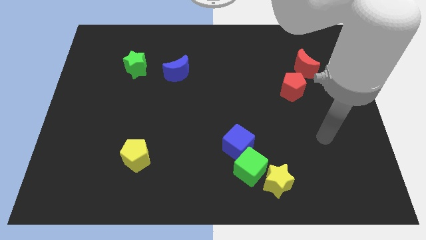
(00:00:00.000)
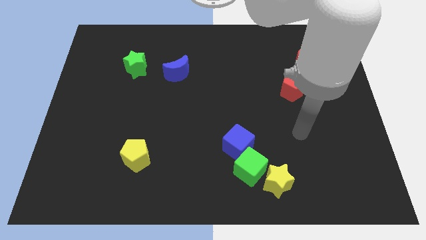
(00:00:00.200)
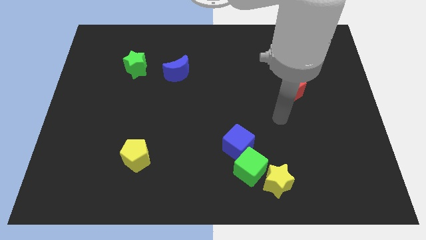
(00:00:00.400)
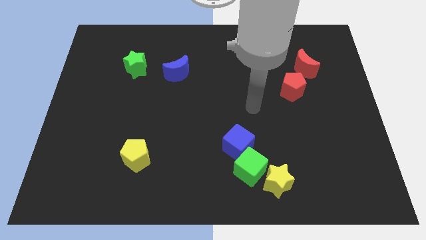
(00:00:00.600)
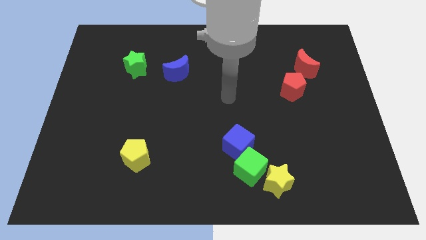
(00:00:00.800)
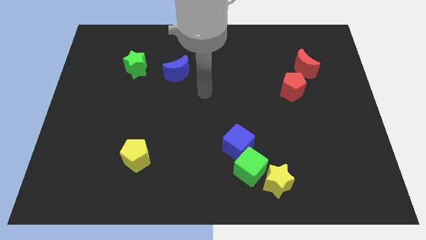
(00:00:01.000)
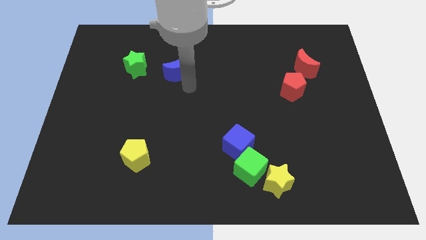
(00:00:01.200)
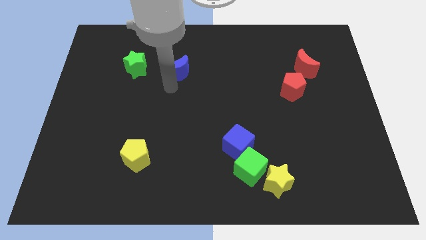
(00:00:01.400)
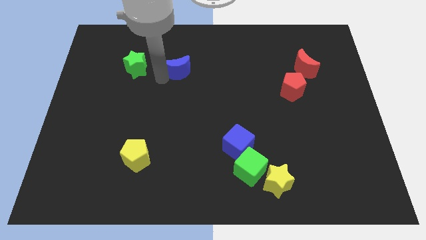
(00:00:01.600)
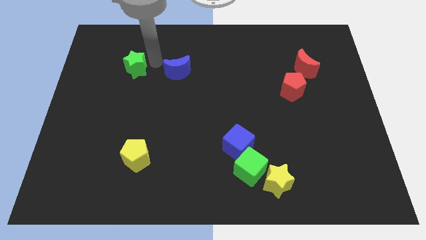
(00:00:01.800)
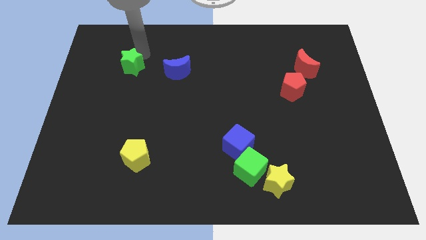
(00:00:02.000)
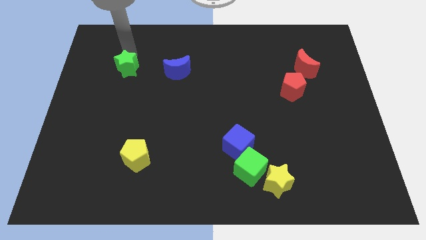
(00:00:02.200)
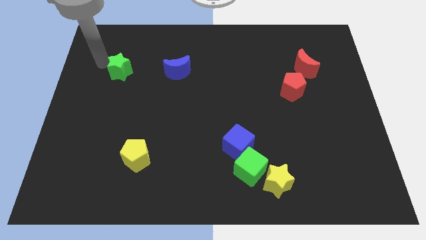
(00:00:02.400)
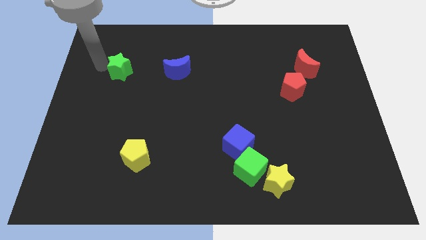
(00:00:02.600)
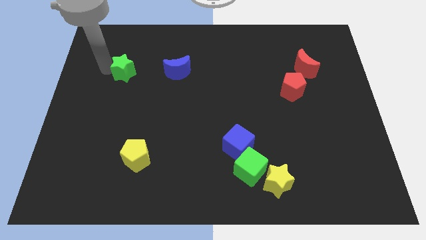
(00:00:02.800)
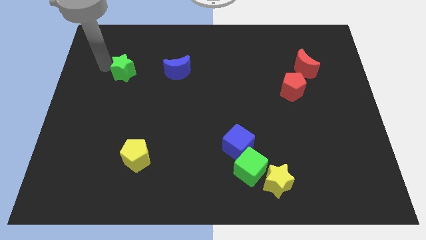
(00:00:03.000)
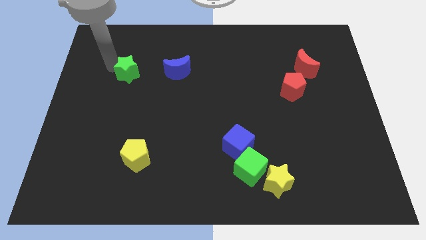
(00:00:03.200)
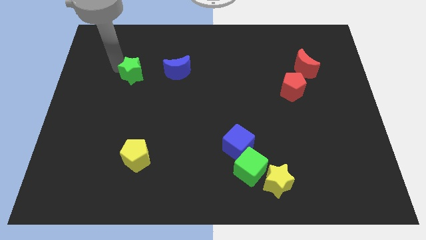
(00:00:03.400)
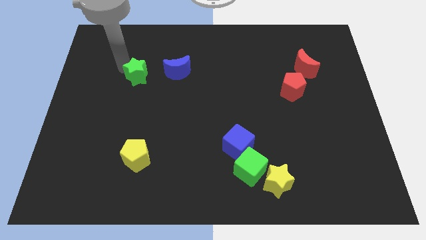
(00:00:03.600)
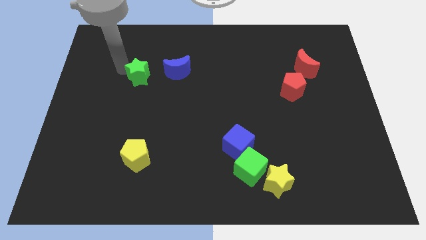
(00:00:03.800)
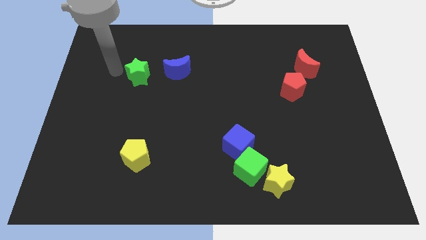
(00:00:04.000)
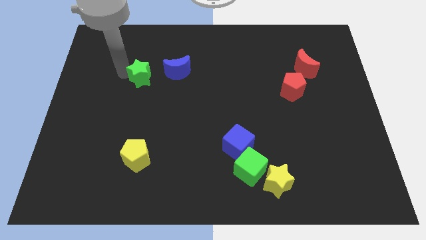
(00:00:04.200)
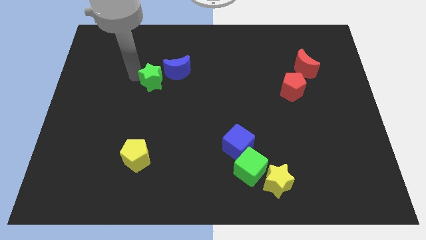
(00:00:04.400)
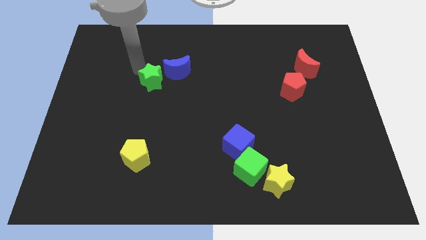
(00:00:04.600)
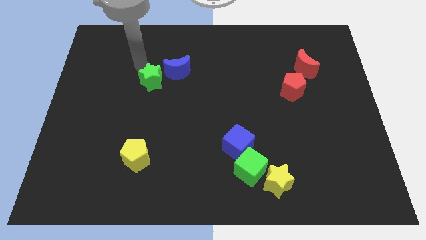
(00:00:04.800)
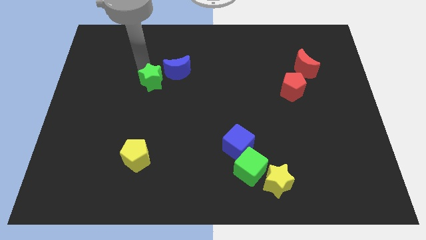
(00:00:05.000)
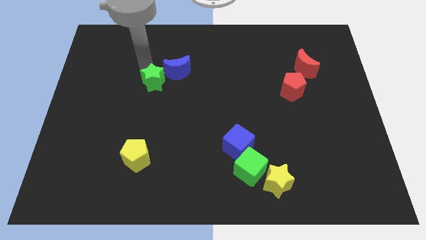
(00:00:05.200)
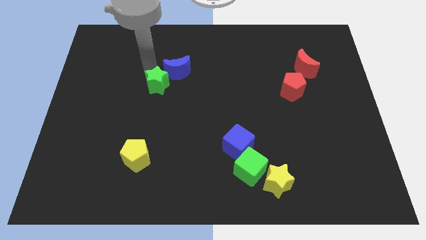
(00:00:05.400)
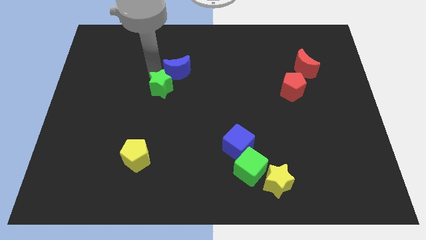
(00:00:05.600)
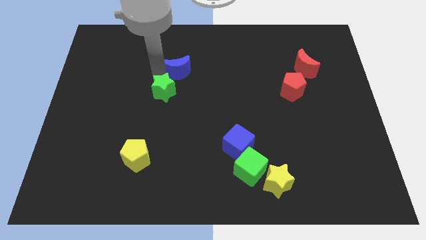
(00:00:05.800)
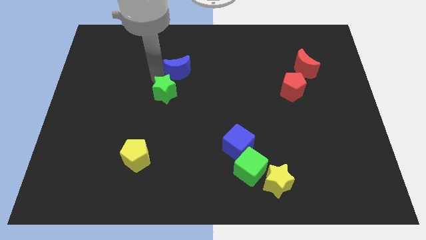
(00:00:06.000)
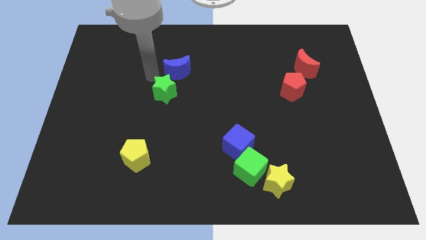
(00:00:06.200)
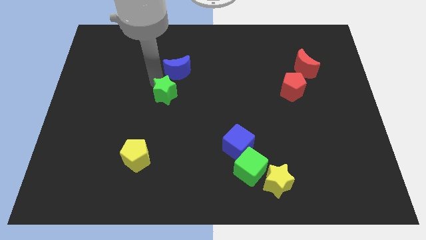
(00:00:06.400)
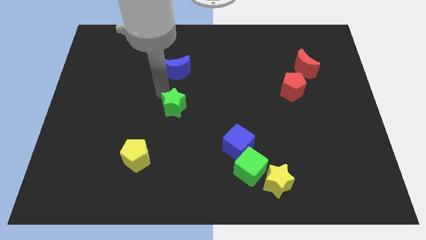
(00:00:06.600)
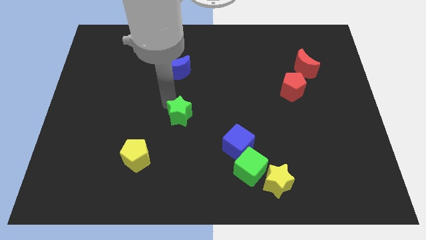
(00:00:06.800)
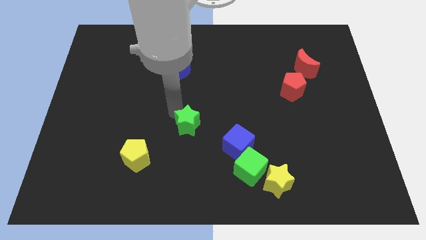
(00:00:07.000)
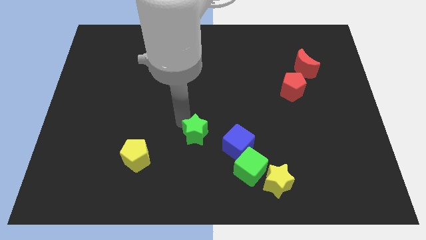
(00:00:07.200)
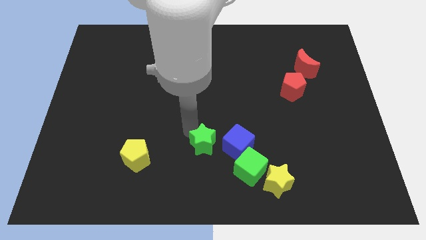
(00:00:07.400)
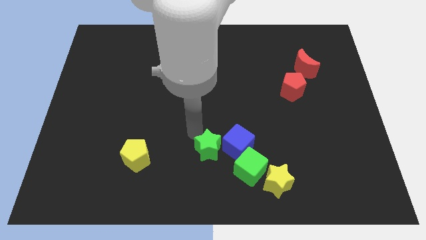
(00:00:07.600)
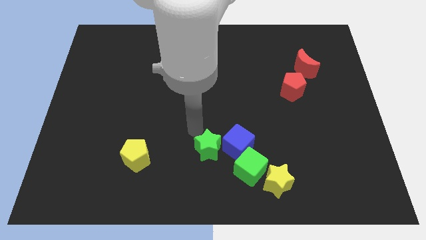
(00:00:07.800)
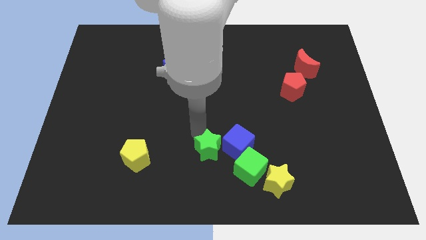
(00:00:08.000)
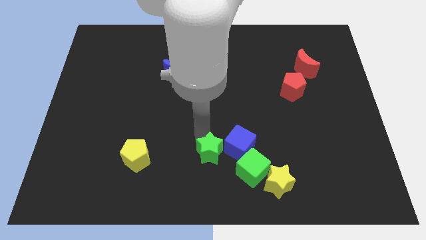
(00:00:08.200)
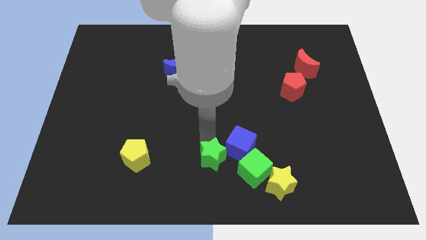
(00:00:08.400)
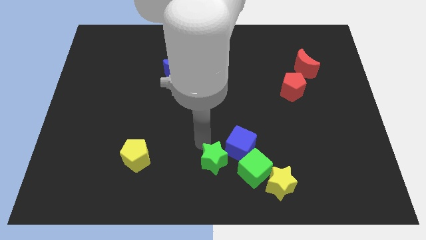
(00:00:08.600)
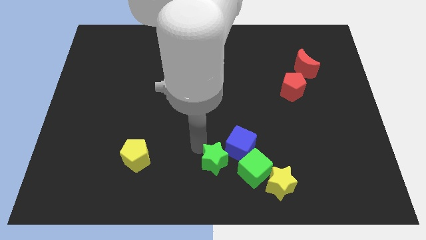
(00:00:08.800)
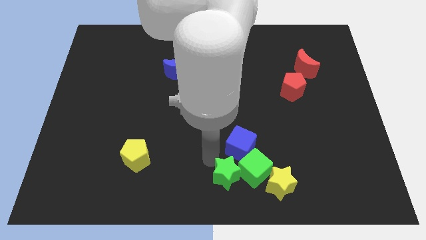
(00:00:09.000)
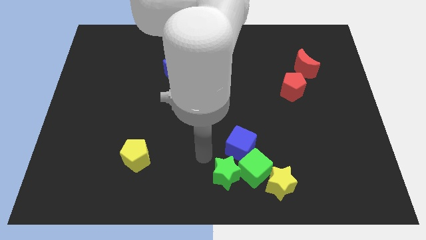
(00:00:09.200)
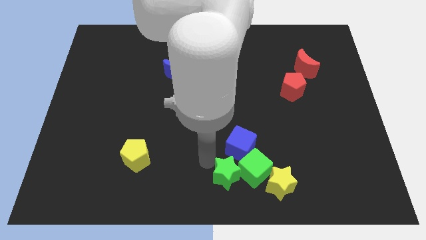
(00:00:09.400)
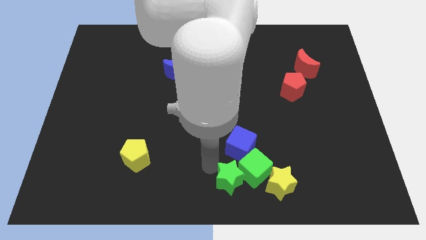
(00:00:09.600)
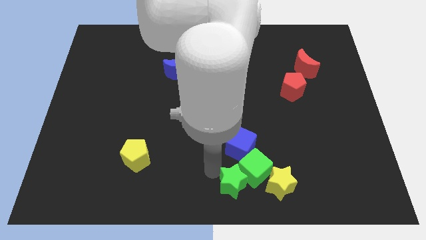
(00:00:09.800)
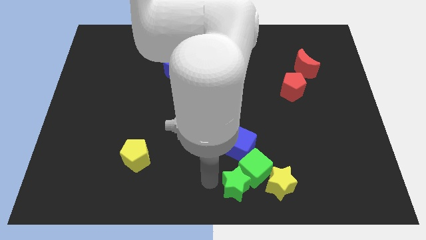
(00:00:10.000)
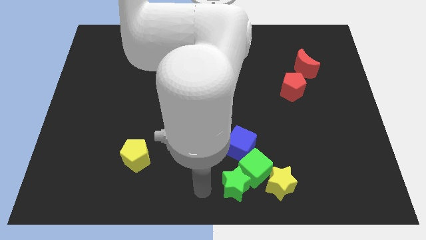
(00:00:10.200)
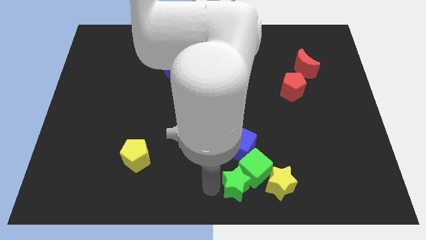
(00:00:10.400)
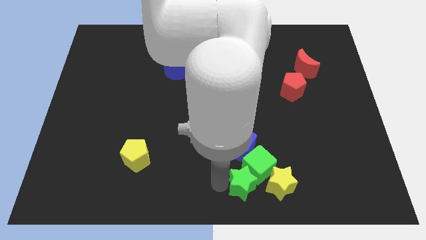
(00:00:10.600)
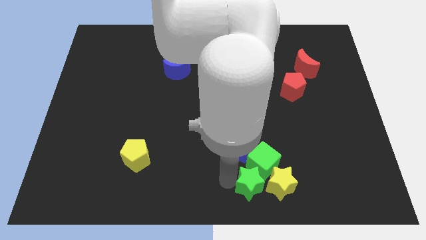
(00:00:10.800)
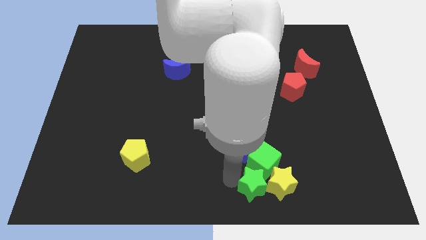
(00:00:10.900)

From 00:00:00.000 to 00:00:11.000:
put the green star to the yellow star

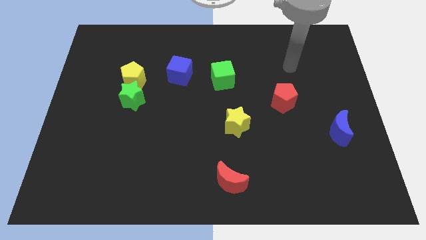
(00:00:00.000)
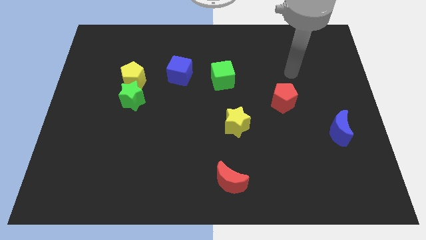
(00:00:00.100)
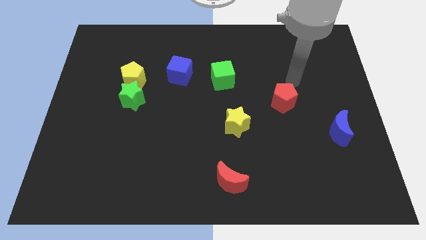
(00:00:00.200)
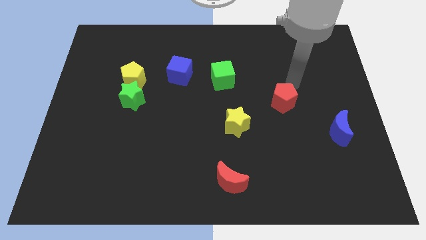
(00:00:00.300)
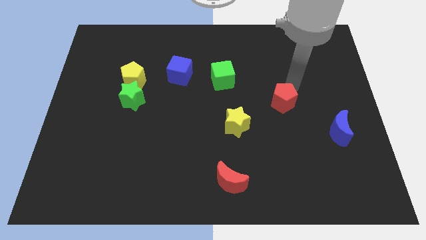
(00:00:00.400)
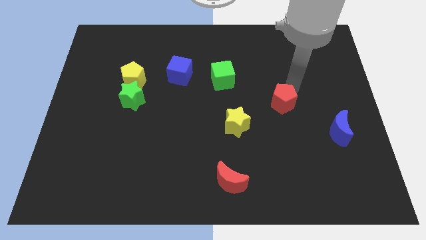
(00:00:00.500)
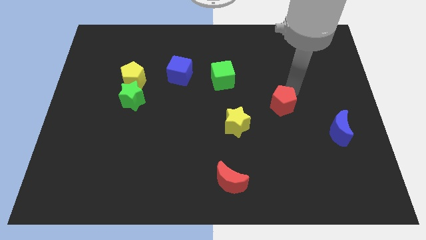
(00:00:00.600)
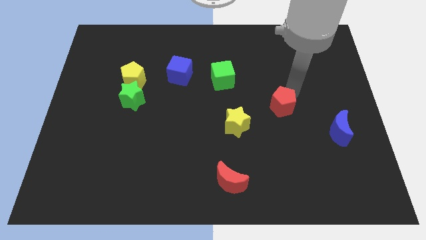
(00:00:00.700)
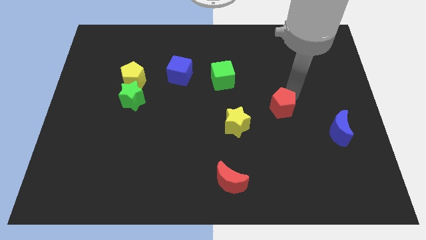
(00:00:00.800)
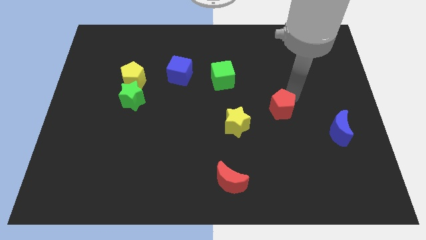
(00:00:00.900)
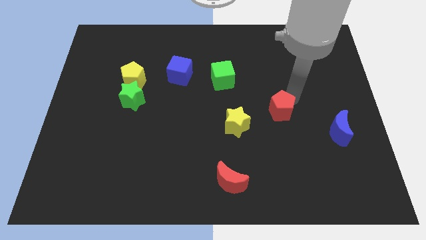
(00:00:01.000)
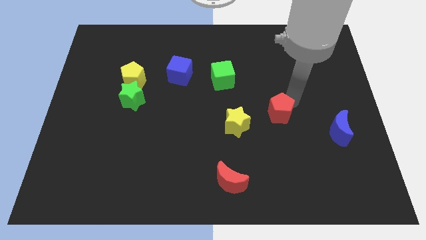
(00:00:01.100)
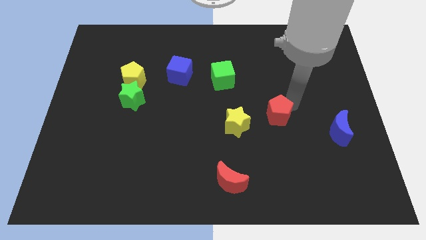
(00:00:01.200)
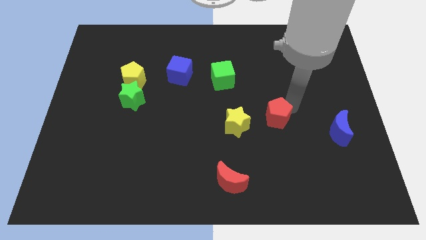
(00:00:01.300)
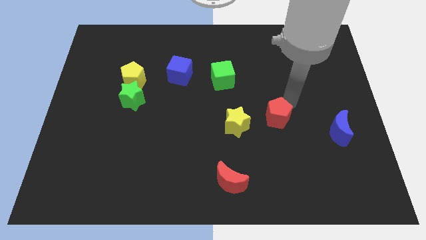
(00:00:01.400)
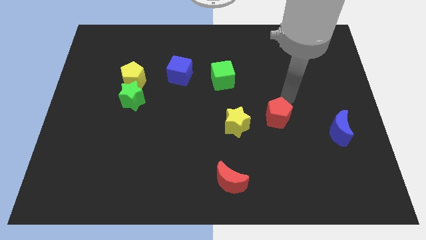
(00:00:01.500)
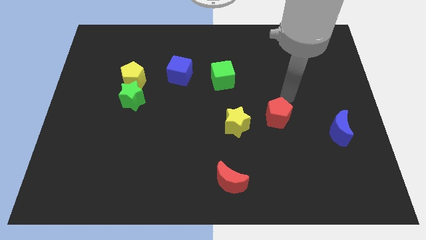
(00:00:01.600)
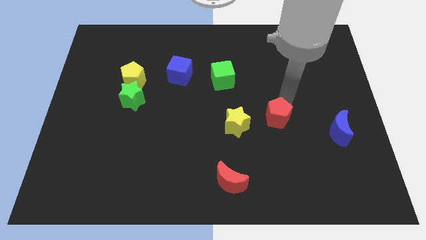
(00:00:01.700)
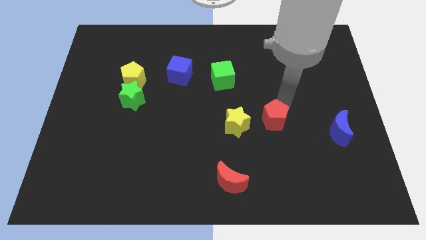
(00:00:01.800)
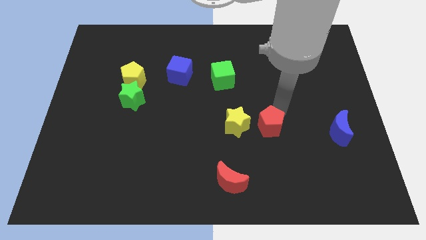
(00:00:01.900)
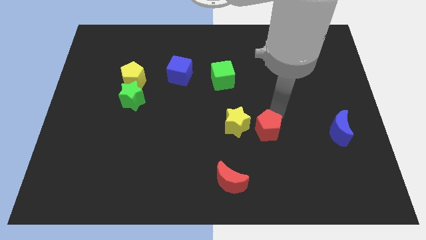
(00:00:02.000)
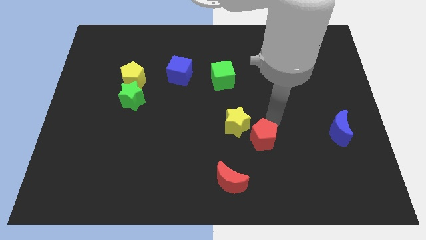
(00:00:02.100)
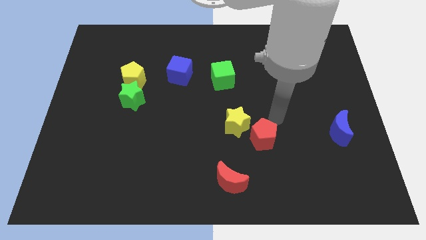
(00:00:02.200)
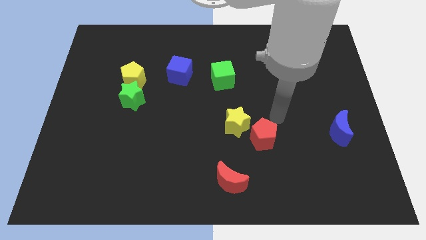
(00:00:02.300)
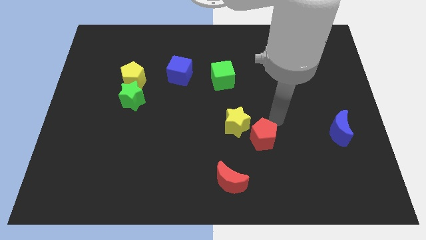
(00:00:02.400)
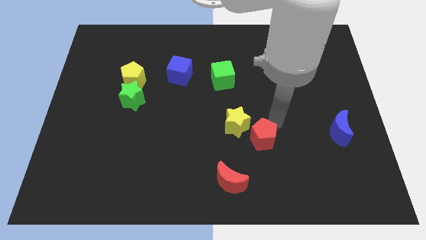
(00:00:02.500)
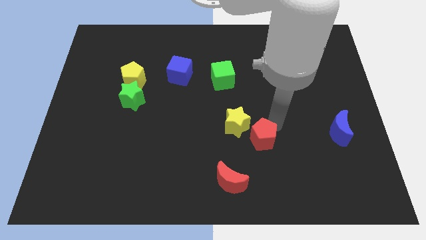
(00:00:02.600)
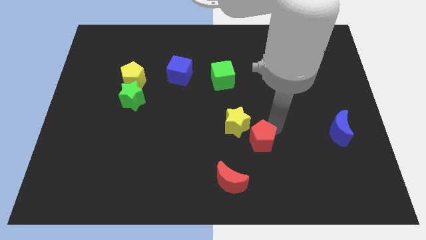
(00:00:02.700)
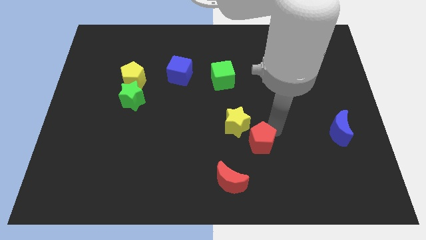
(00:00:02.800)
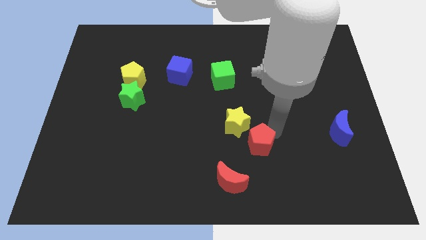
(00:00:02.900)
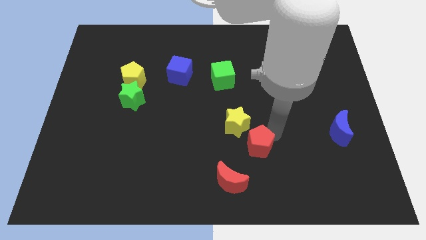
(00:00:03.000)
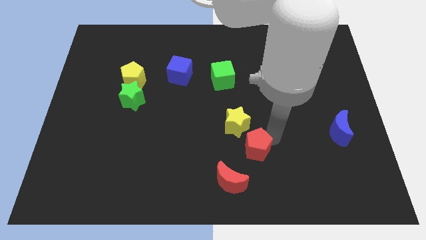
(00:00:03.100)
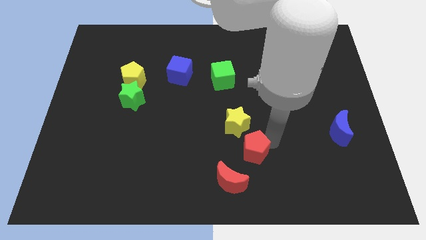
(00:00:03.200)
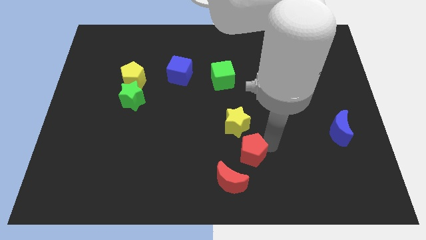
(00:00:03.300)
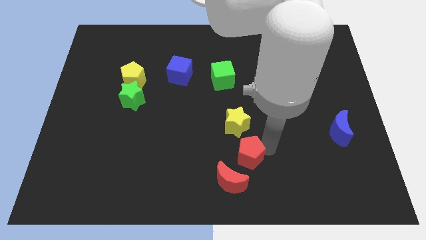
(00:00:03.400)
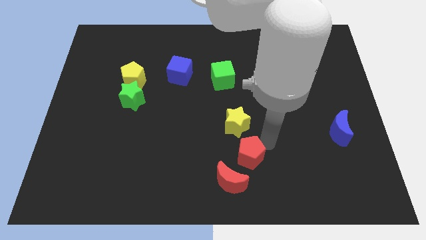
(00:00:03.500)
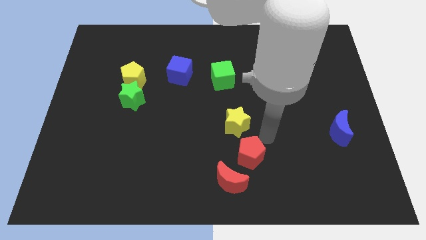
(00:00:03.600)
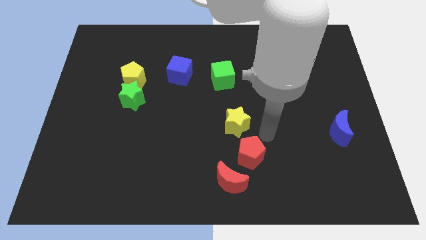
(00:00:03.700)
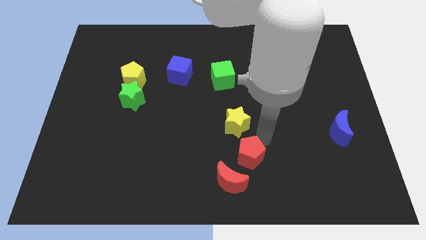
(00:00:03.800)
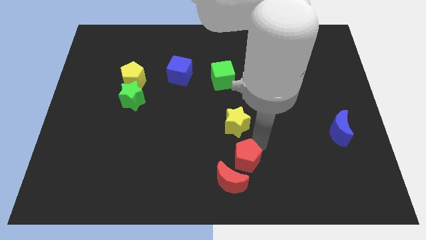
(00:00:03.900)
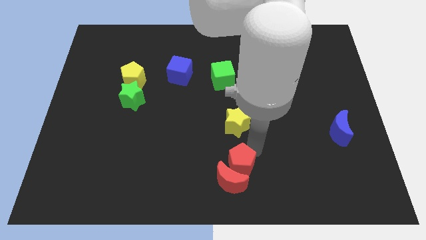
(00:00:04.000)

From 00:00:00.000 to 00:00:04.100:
push the red pentagon close to the red moon
